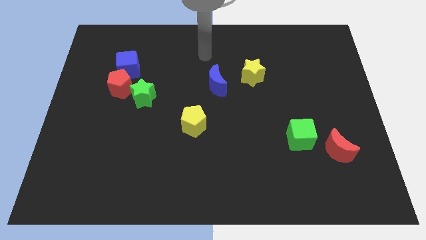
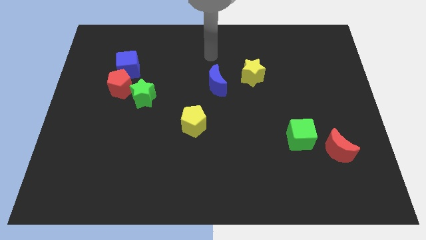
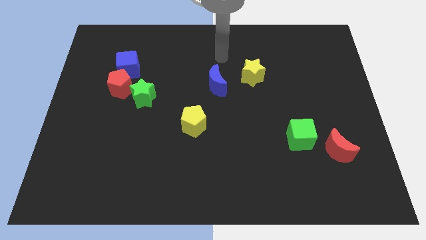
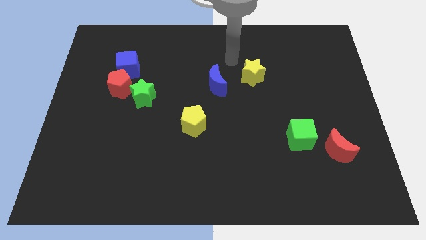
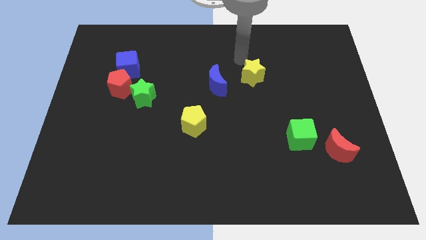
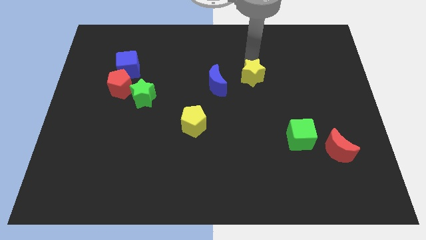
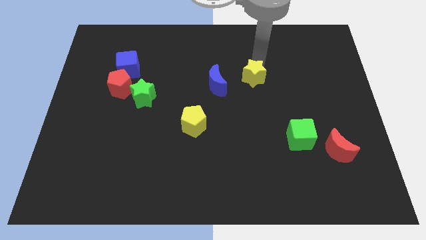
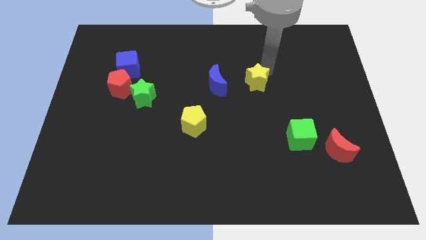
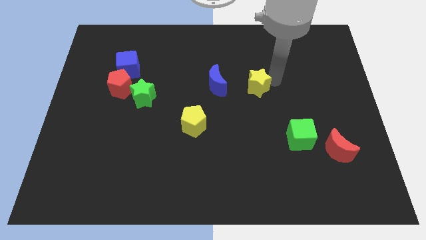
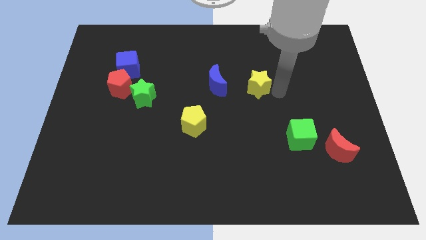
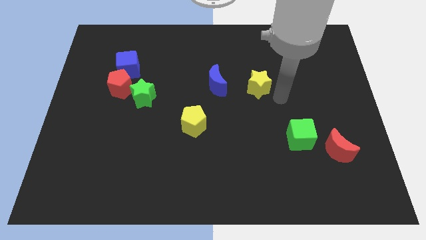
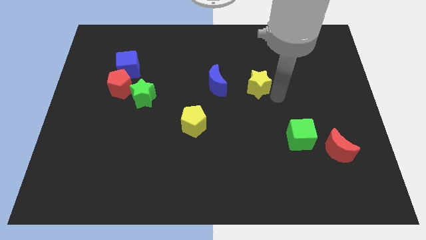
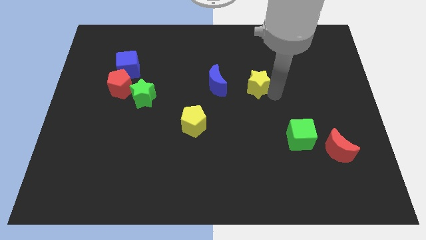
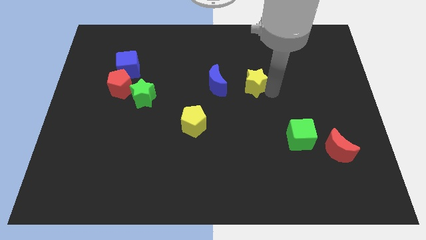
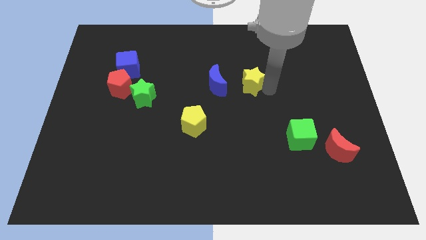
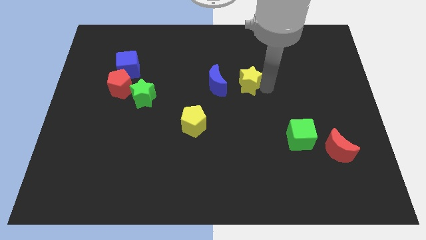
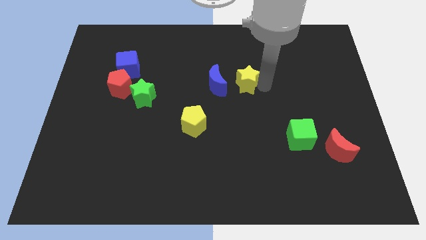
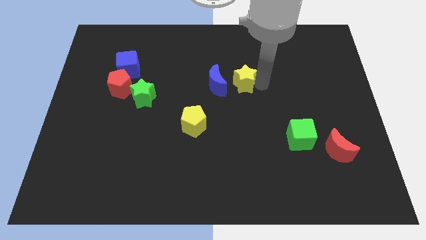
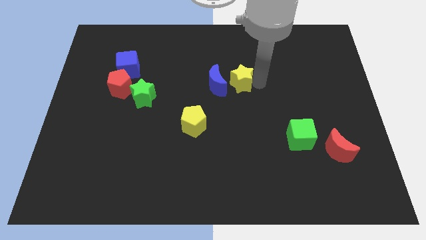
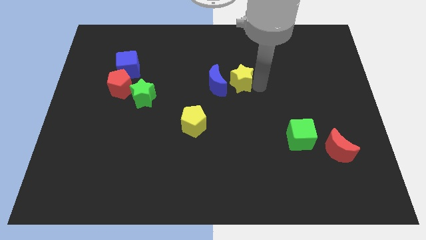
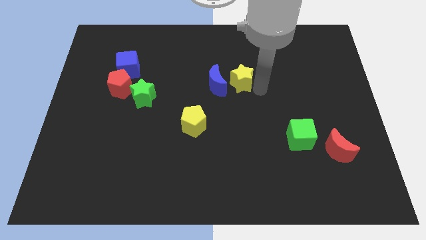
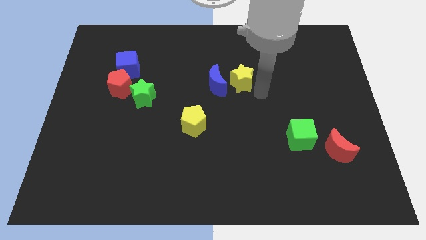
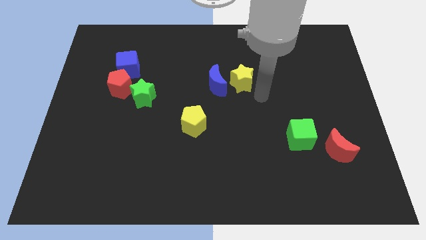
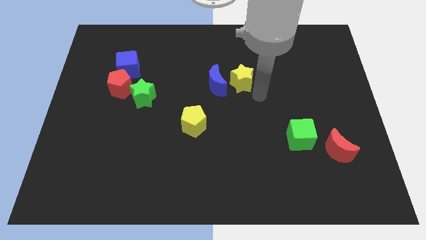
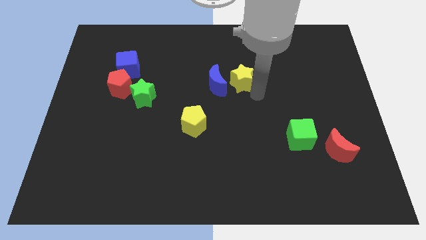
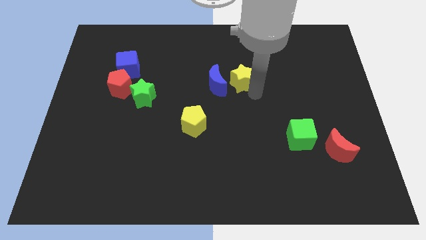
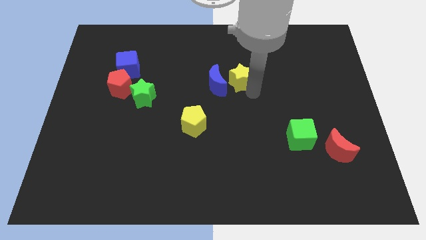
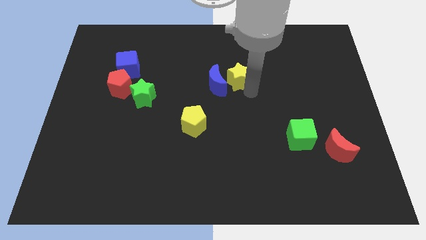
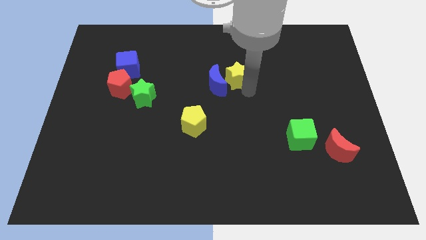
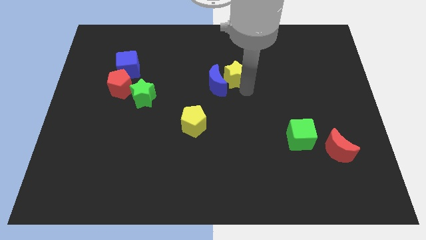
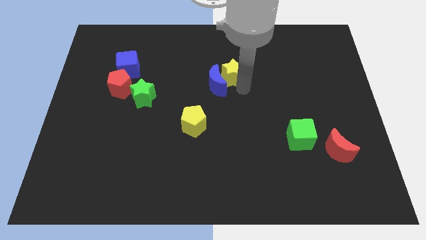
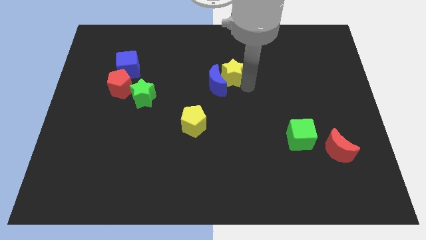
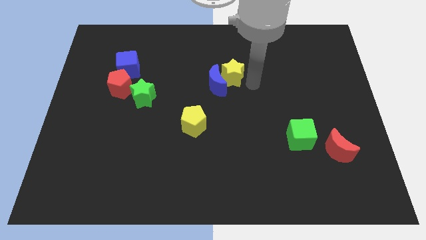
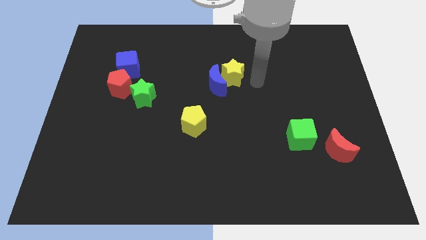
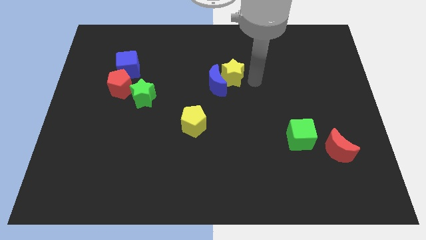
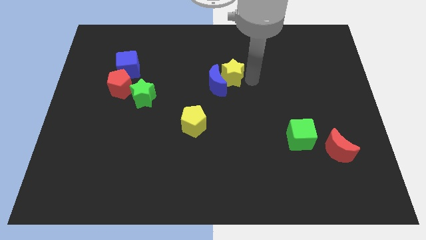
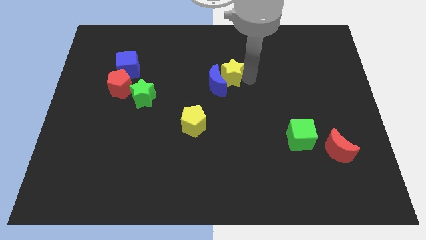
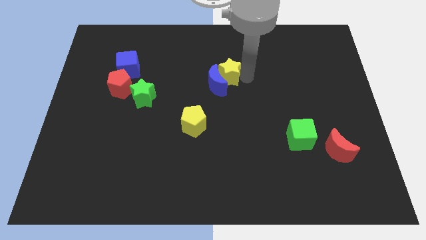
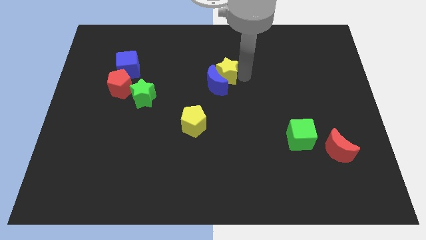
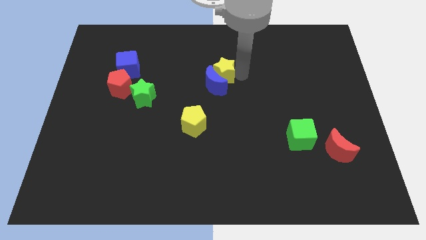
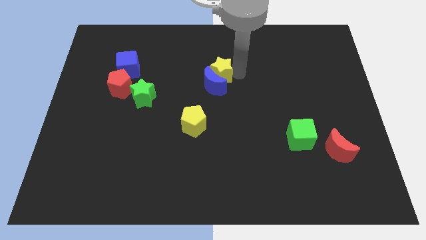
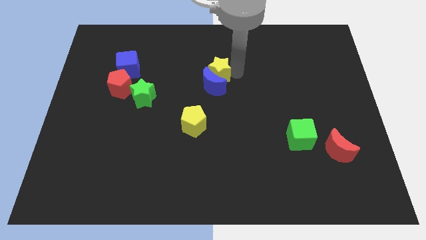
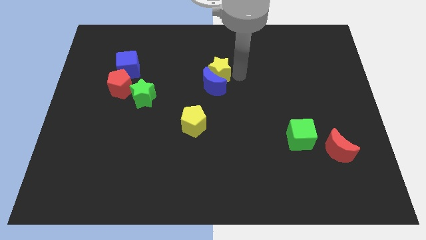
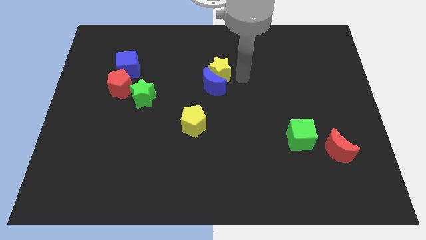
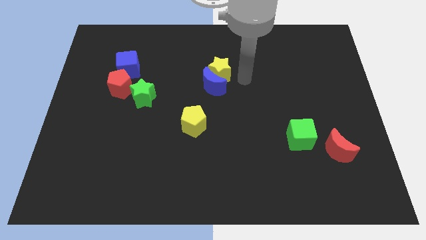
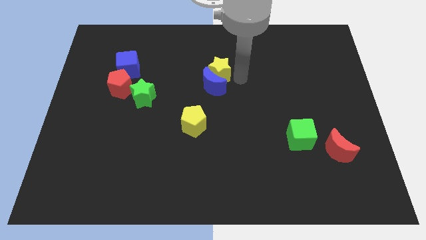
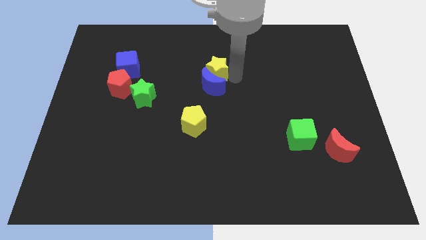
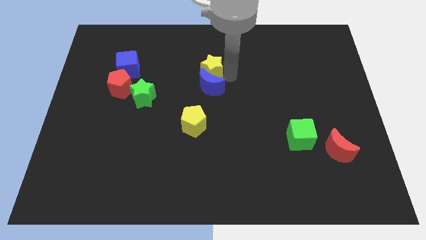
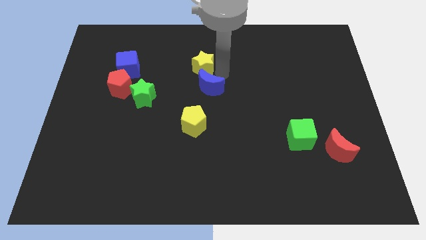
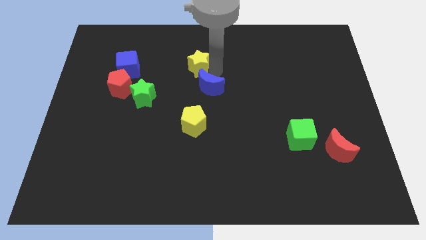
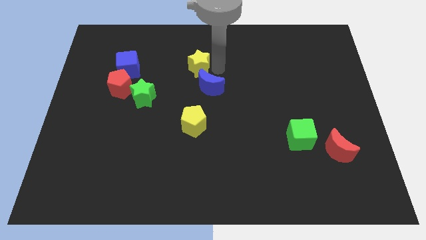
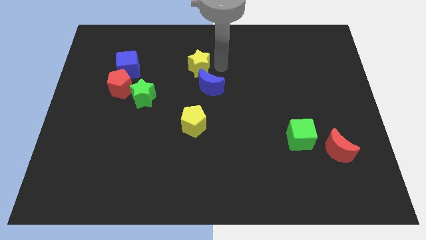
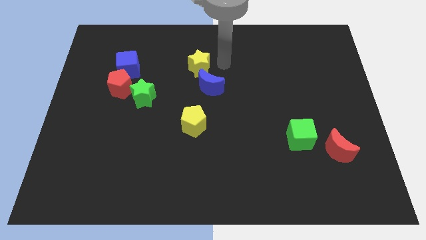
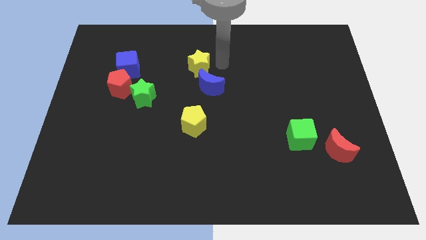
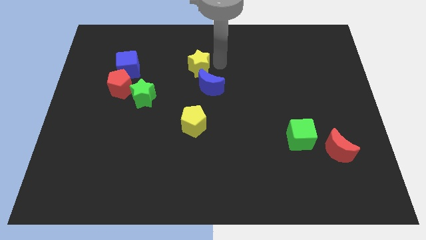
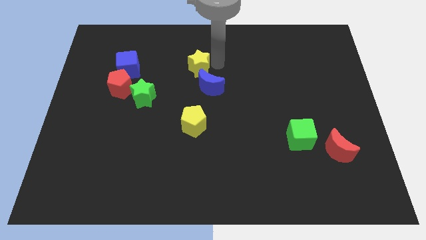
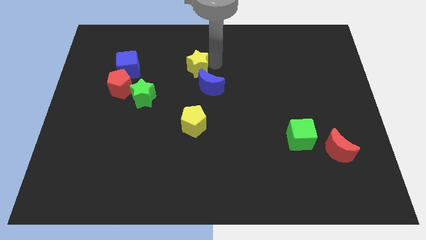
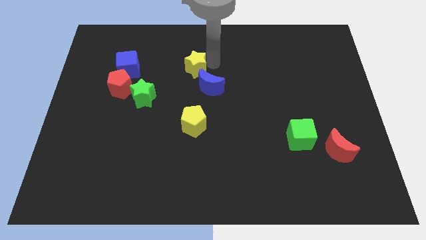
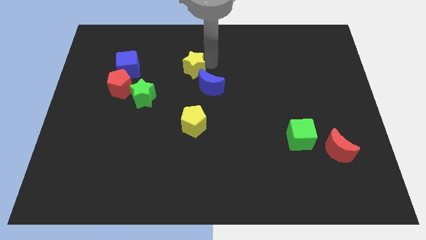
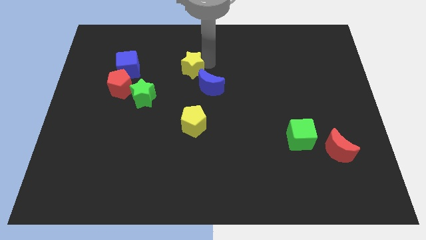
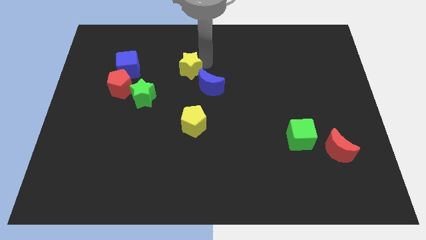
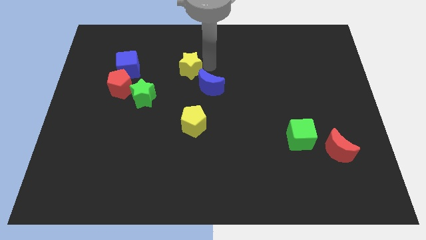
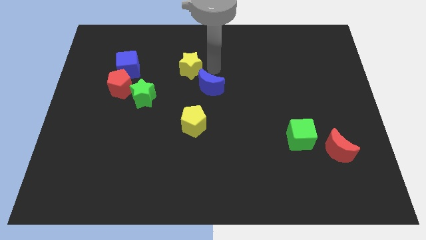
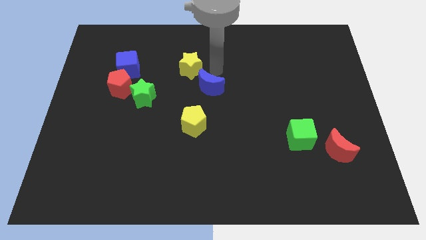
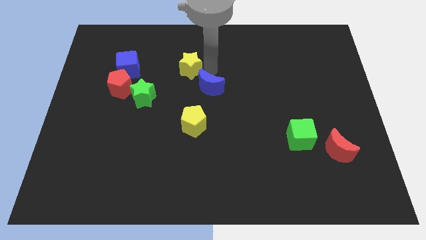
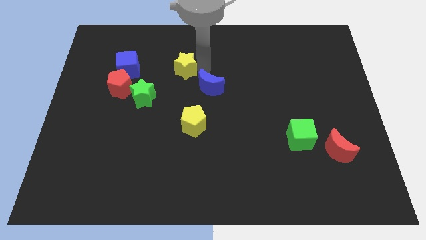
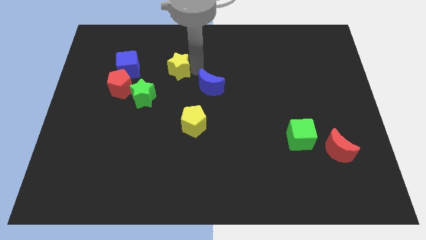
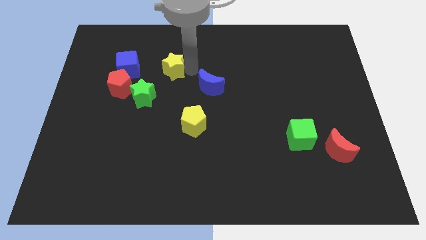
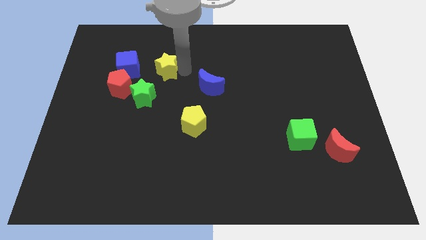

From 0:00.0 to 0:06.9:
slide the yellow star to the top of the green star

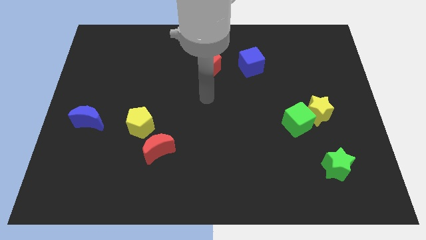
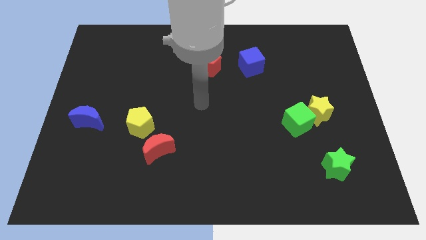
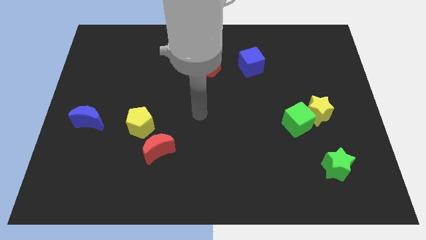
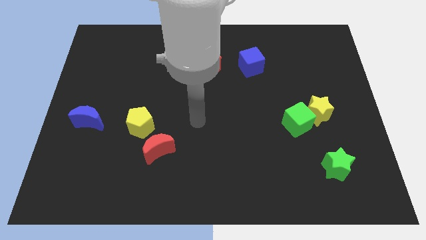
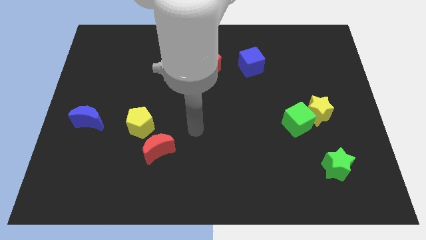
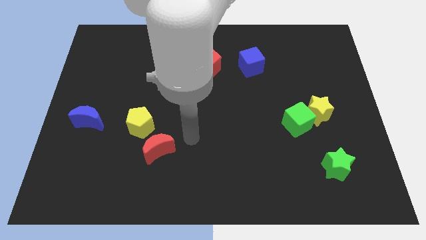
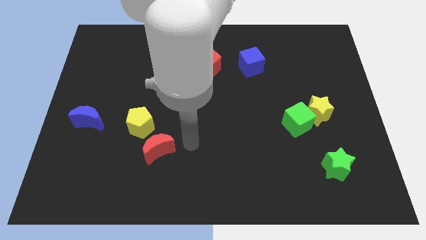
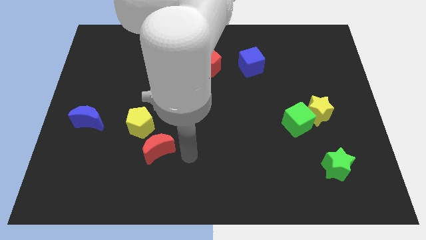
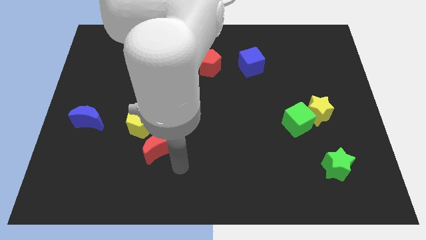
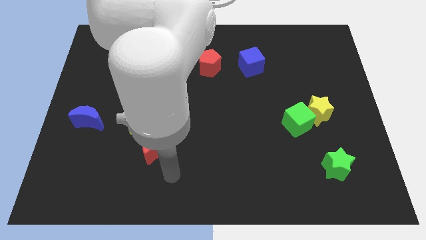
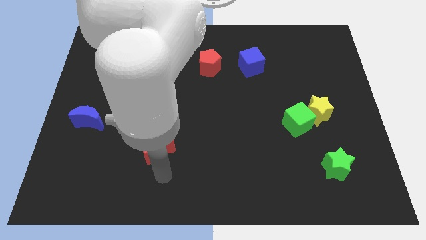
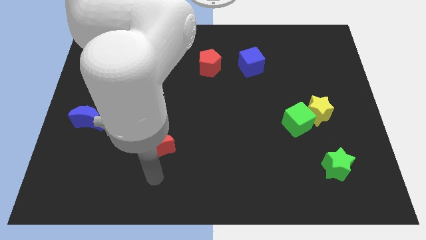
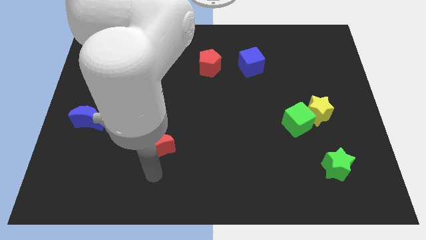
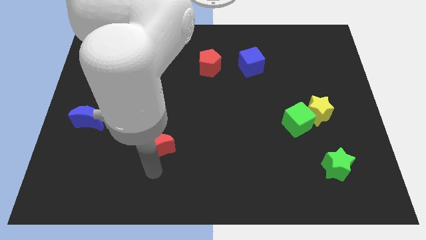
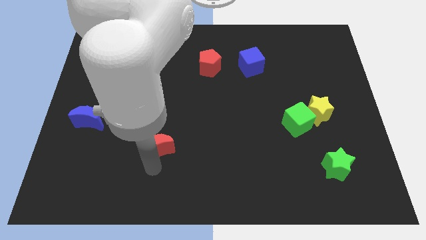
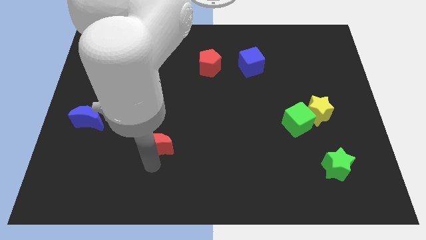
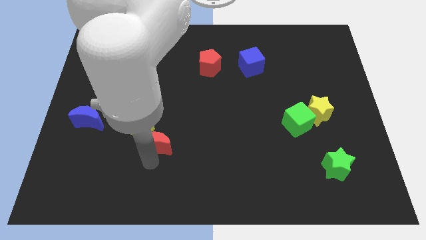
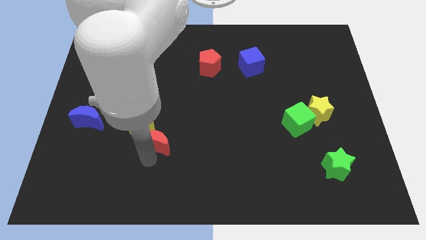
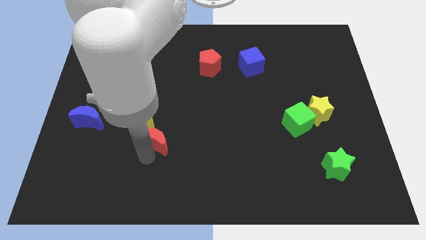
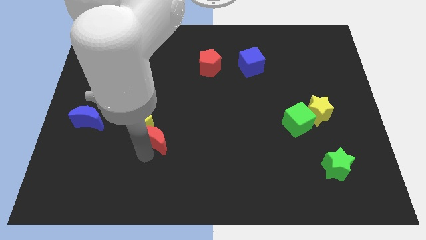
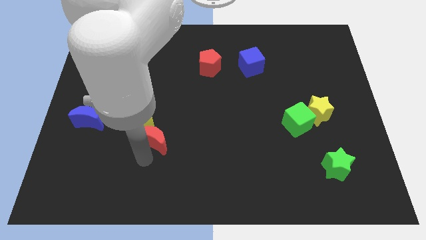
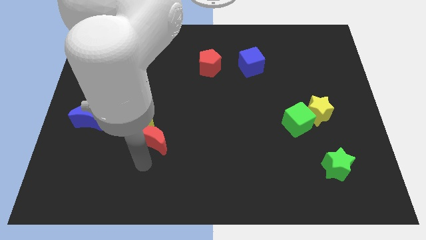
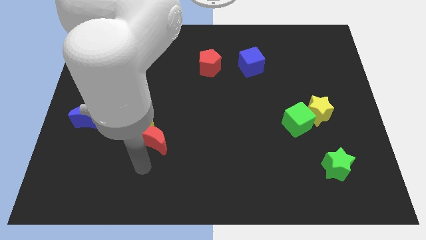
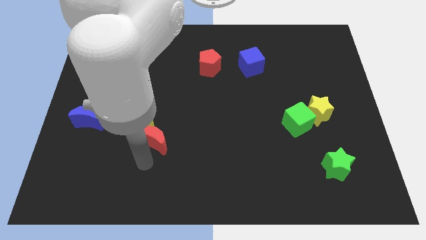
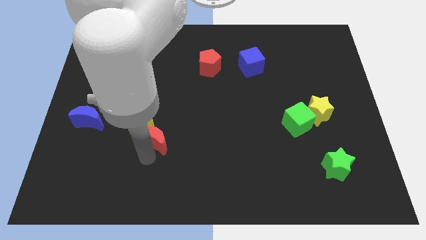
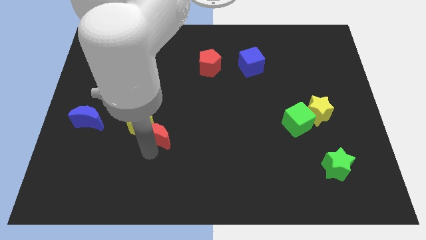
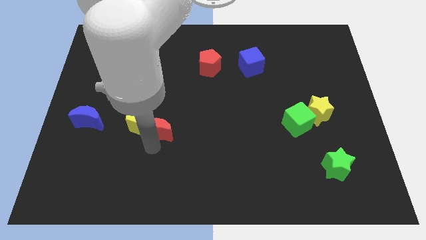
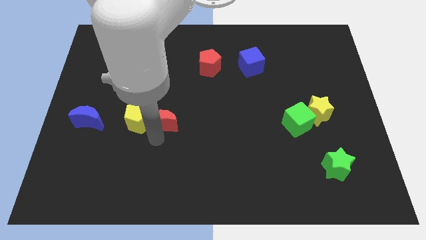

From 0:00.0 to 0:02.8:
slide the red moon to the top right of the yellow pentagon
